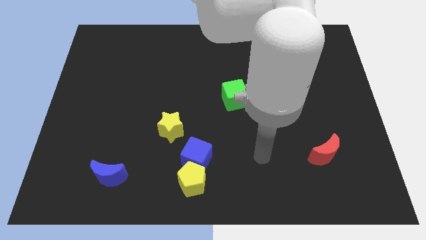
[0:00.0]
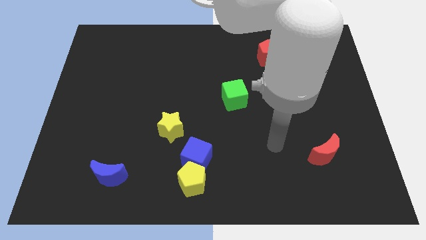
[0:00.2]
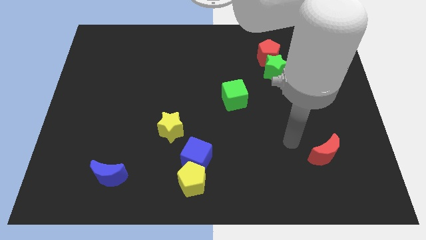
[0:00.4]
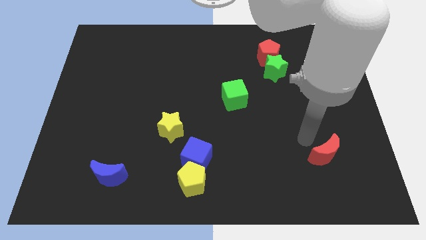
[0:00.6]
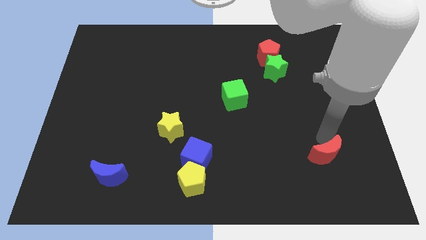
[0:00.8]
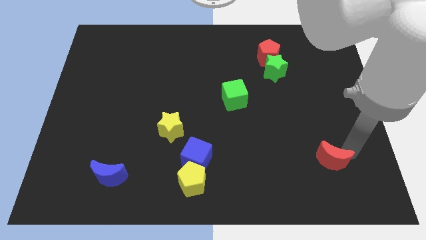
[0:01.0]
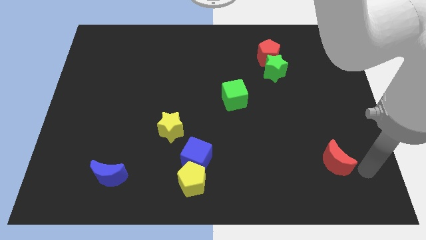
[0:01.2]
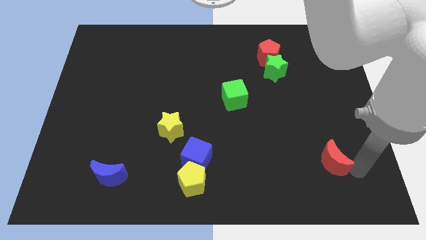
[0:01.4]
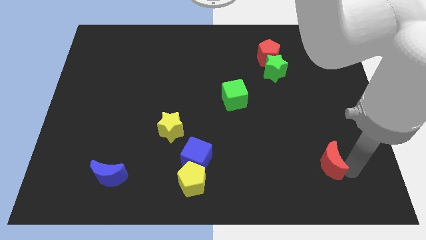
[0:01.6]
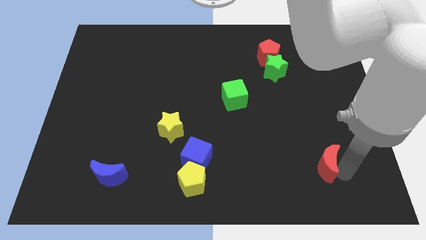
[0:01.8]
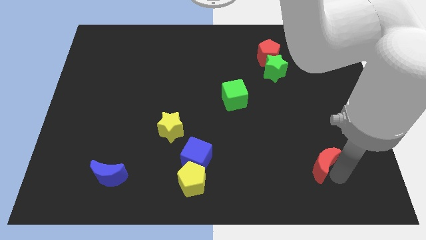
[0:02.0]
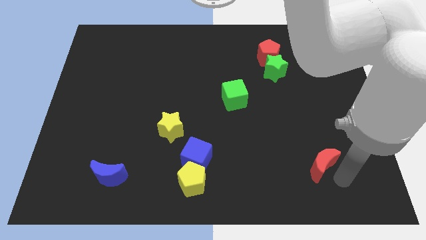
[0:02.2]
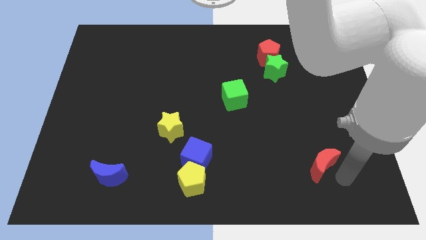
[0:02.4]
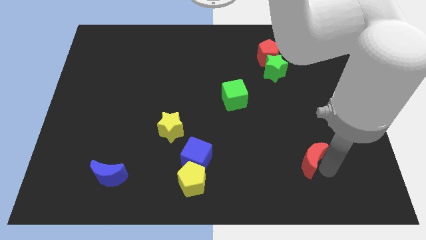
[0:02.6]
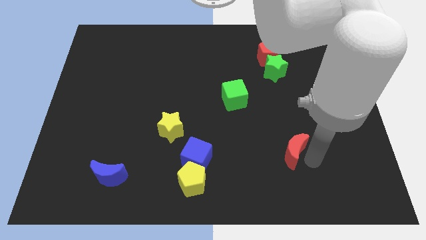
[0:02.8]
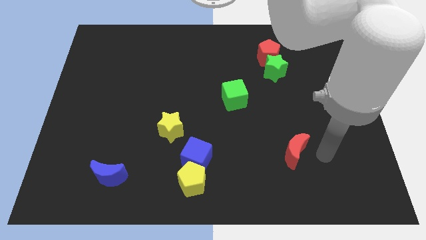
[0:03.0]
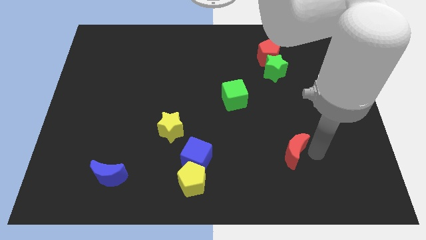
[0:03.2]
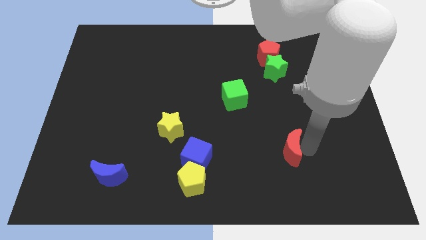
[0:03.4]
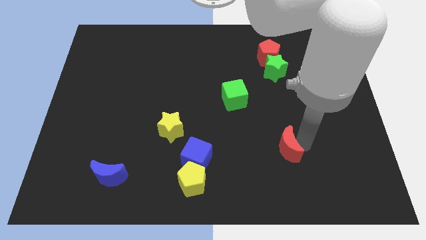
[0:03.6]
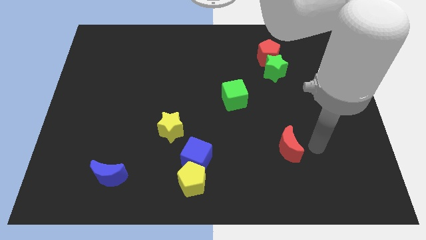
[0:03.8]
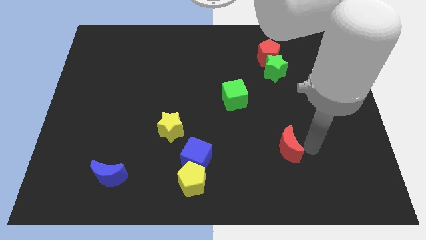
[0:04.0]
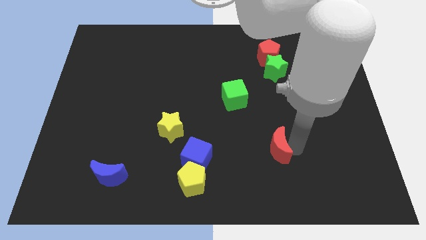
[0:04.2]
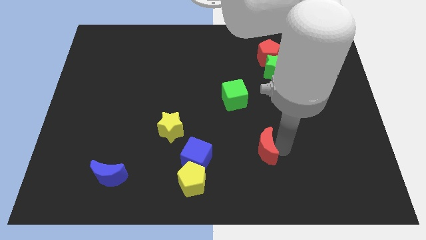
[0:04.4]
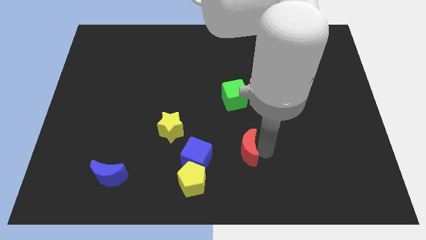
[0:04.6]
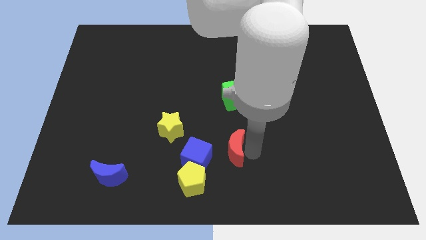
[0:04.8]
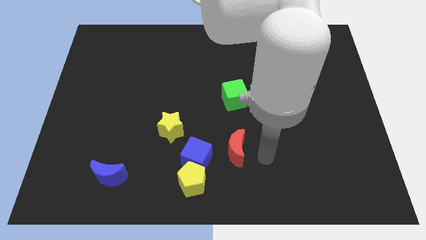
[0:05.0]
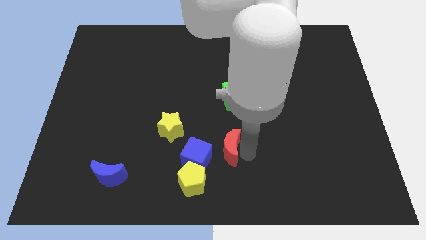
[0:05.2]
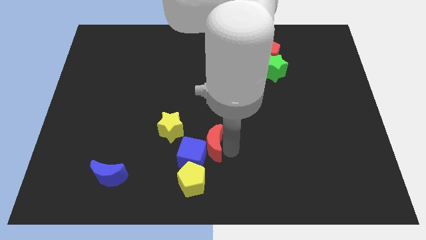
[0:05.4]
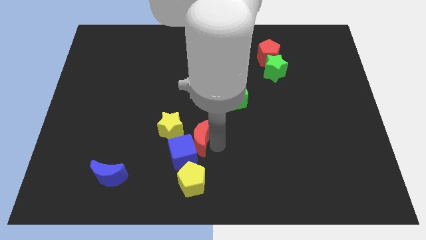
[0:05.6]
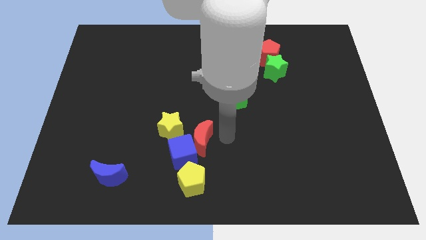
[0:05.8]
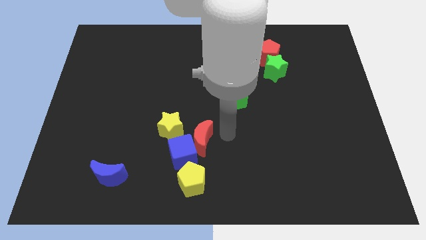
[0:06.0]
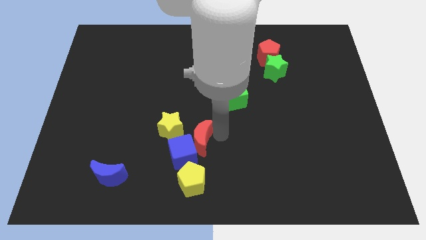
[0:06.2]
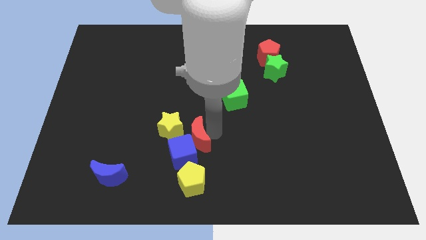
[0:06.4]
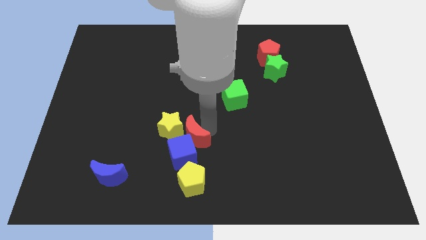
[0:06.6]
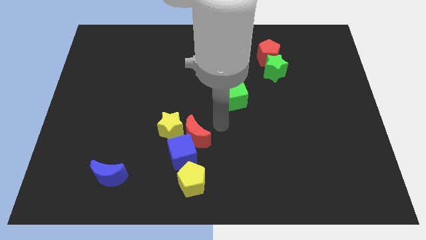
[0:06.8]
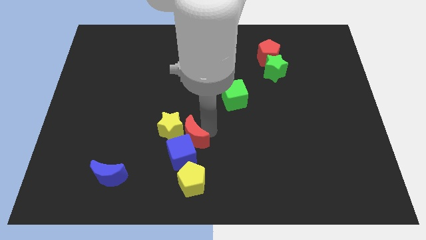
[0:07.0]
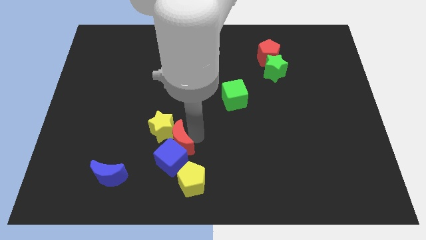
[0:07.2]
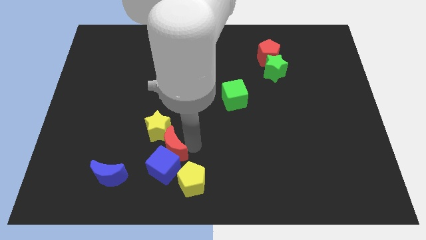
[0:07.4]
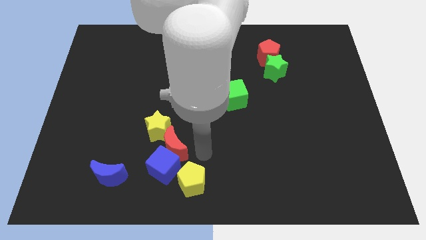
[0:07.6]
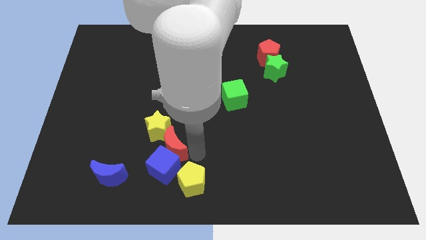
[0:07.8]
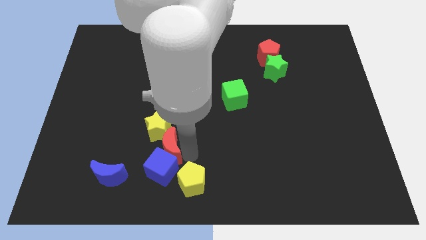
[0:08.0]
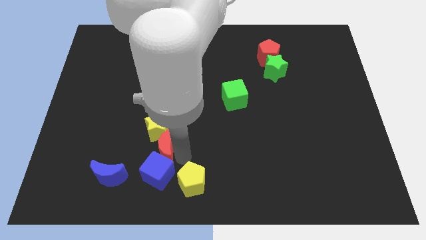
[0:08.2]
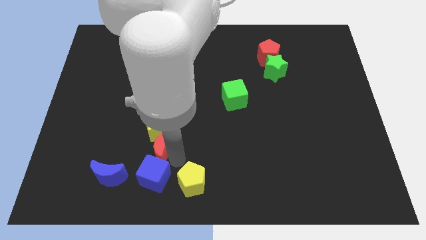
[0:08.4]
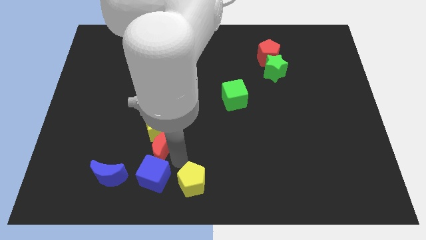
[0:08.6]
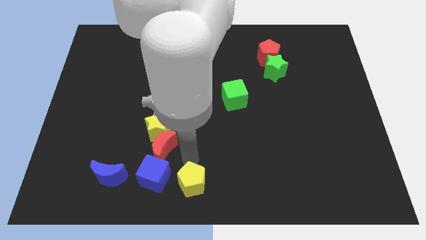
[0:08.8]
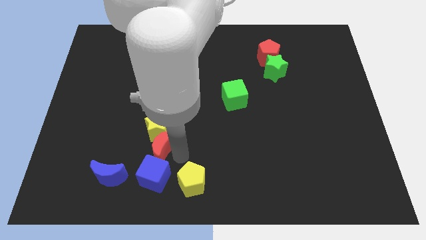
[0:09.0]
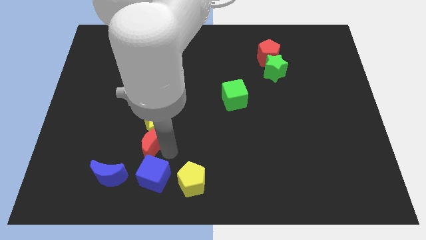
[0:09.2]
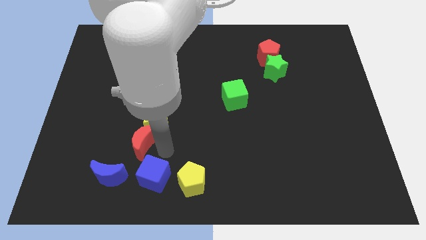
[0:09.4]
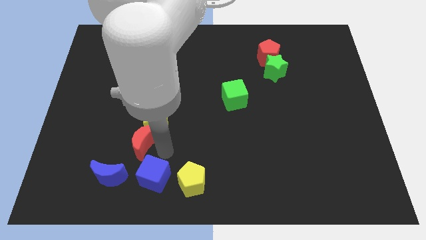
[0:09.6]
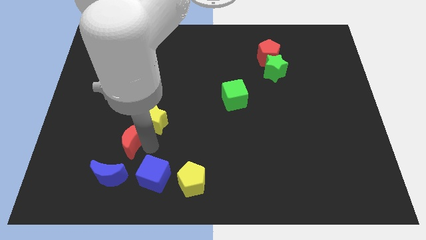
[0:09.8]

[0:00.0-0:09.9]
put the red moon to the top of the blue moon

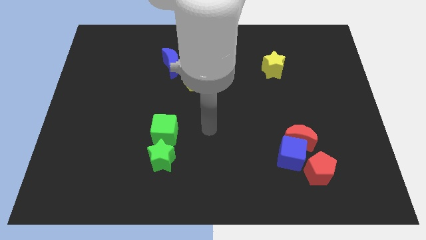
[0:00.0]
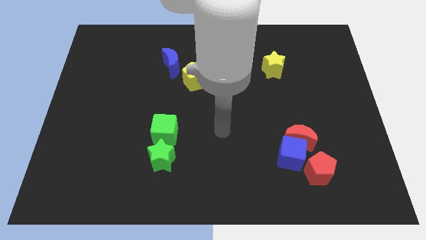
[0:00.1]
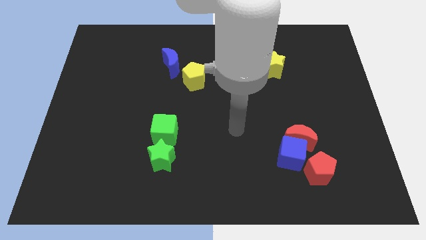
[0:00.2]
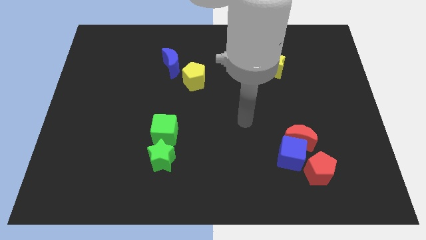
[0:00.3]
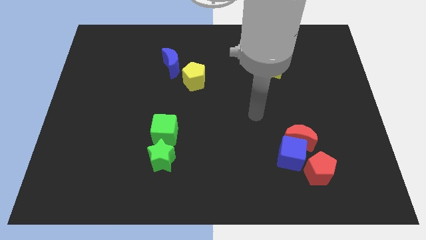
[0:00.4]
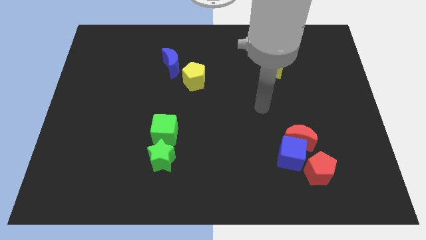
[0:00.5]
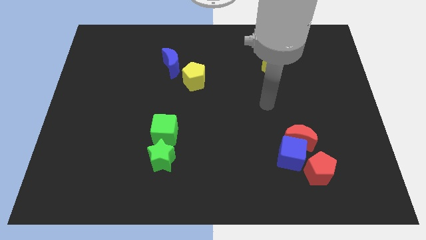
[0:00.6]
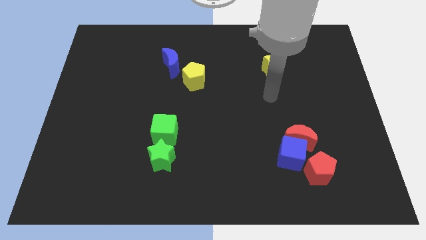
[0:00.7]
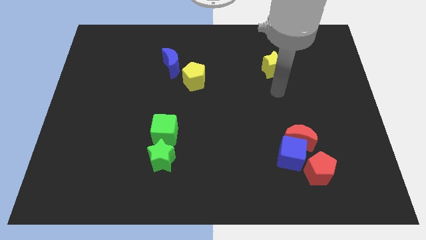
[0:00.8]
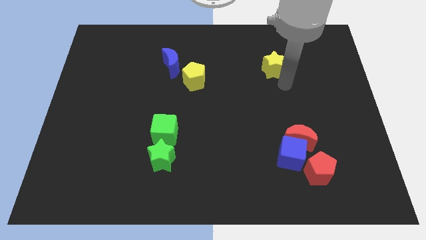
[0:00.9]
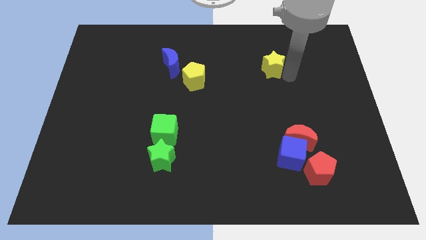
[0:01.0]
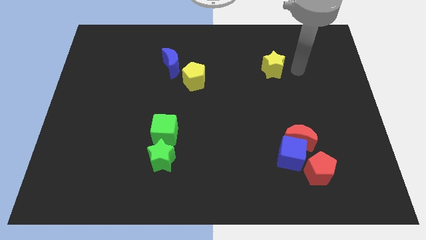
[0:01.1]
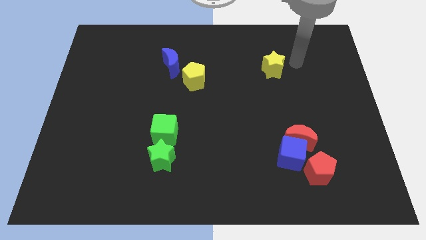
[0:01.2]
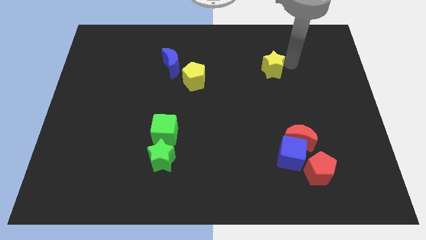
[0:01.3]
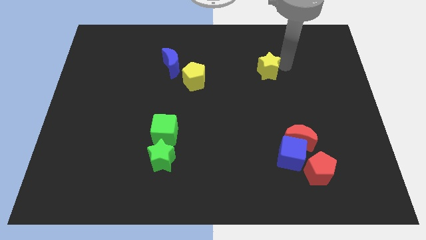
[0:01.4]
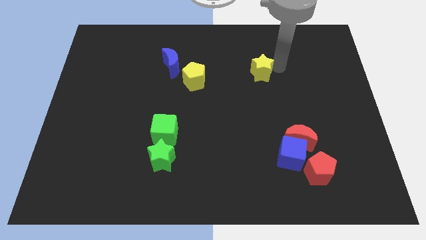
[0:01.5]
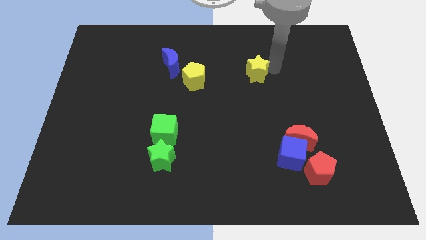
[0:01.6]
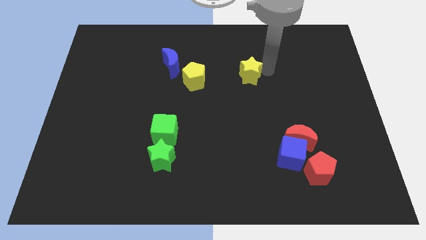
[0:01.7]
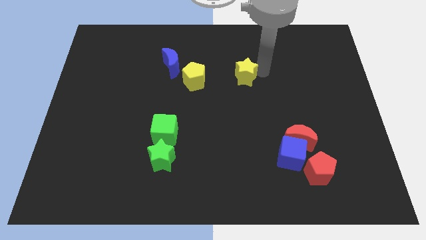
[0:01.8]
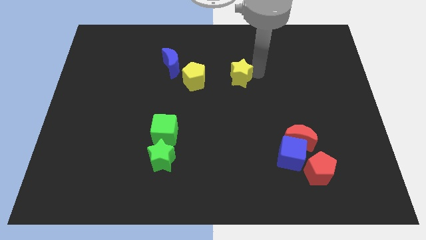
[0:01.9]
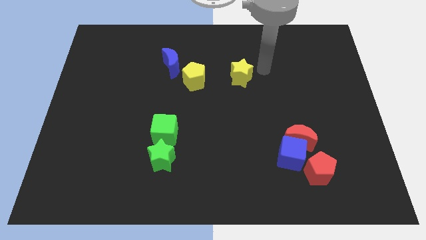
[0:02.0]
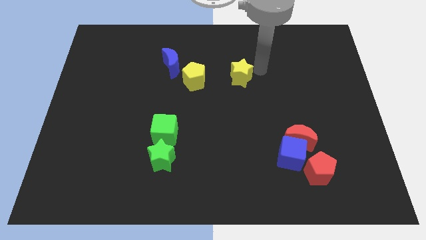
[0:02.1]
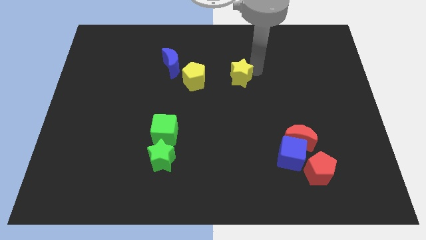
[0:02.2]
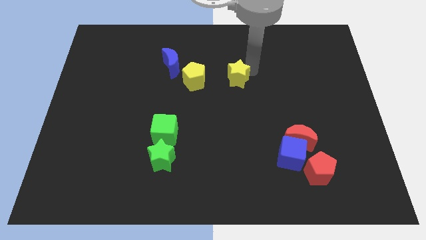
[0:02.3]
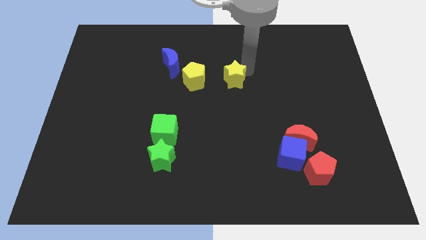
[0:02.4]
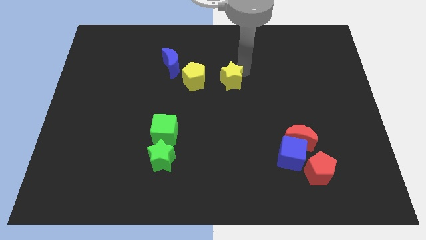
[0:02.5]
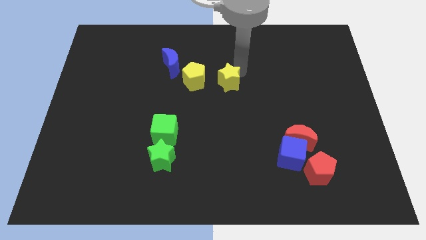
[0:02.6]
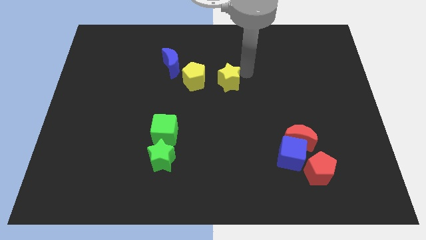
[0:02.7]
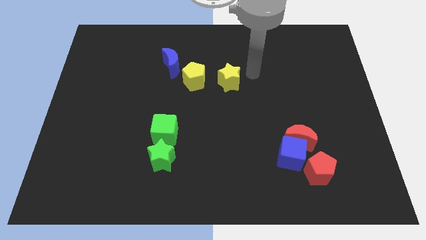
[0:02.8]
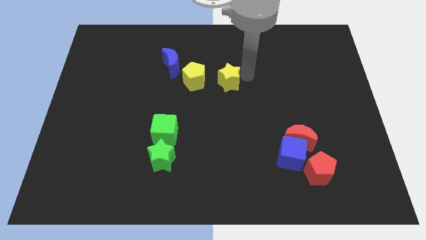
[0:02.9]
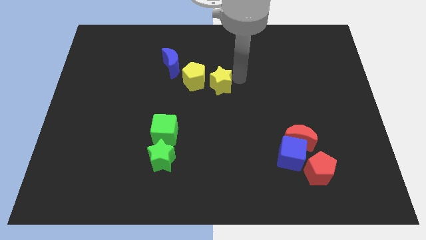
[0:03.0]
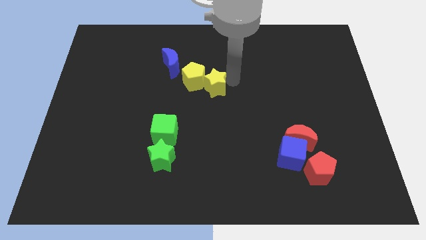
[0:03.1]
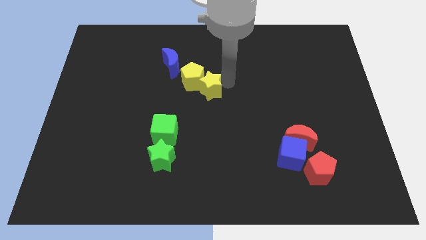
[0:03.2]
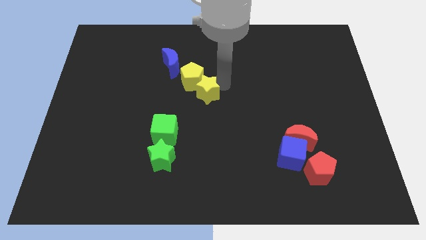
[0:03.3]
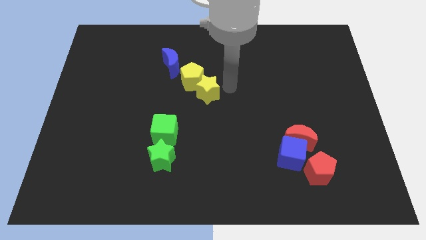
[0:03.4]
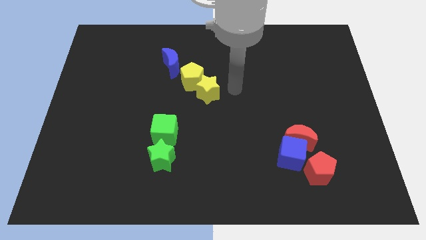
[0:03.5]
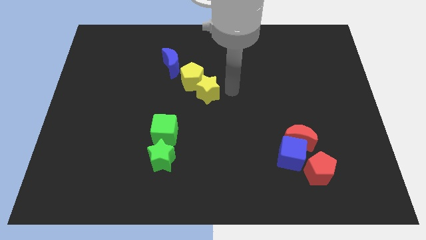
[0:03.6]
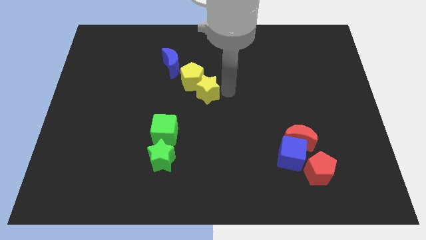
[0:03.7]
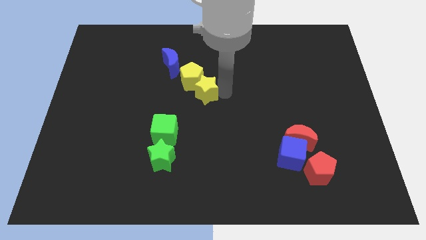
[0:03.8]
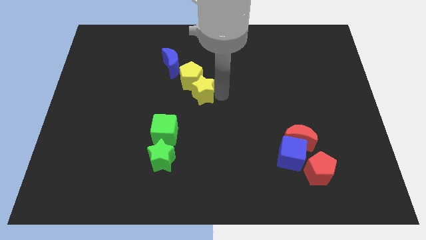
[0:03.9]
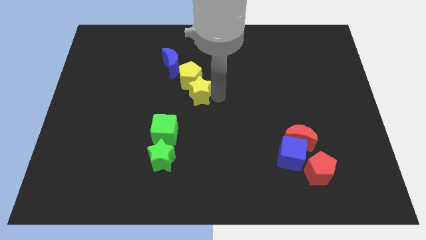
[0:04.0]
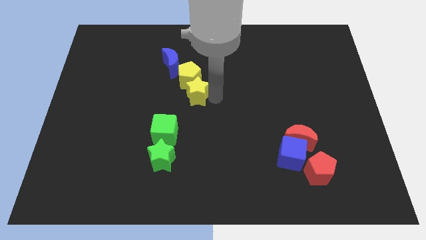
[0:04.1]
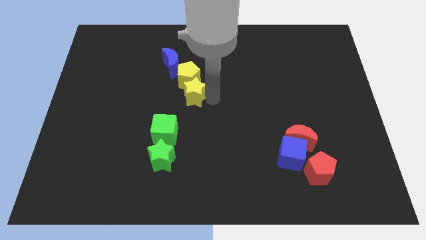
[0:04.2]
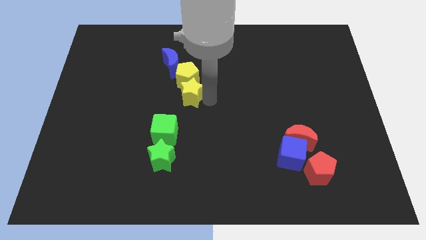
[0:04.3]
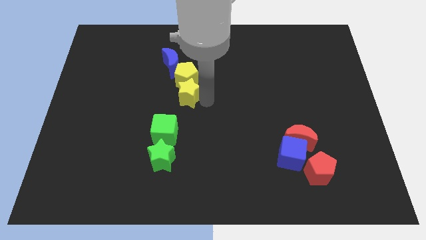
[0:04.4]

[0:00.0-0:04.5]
slide the yellow star to the bottom of the blue moon
